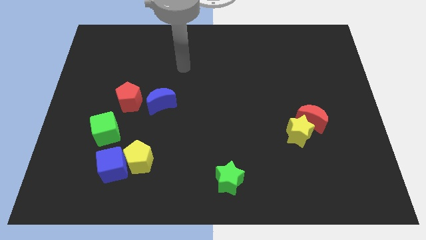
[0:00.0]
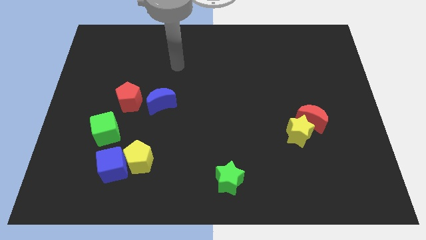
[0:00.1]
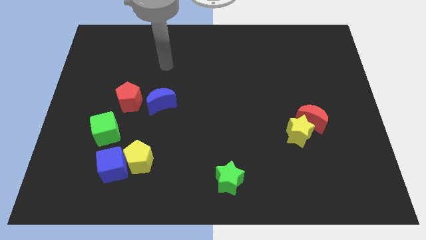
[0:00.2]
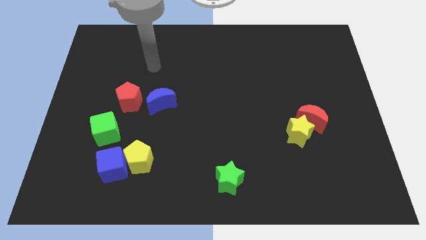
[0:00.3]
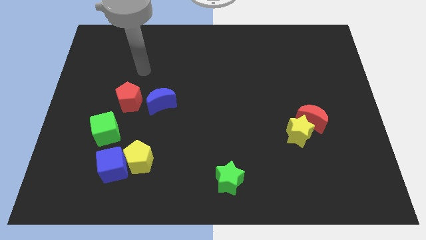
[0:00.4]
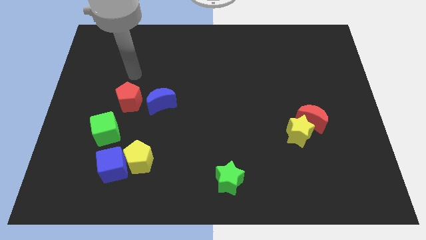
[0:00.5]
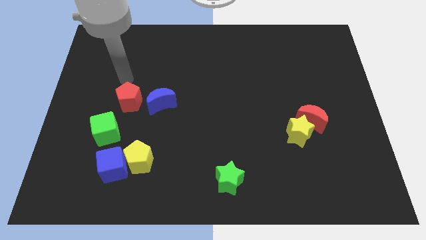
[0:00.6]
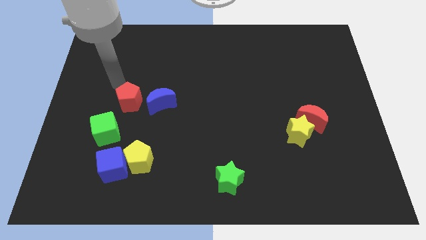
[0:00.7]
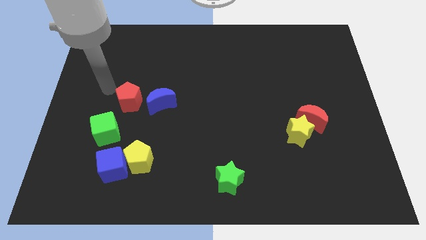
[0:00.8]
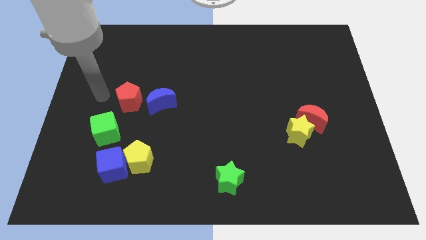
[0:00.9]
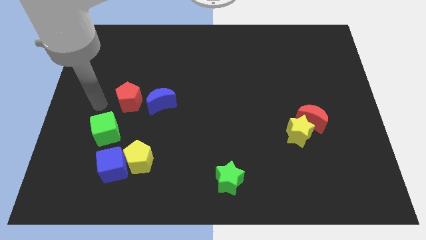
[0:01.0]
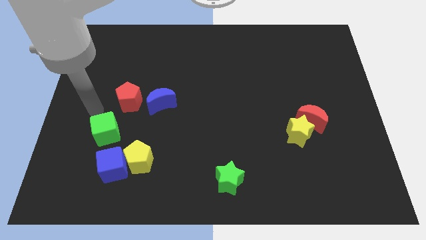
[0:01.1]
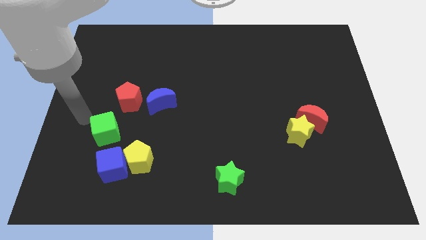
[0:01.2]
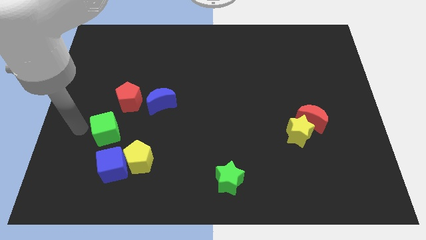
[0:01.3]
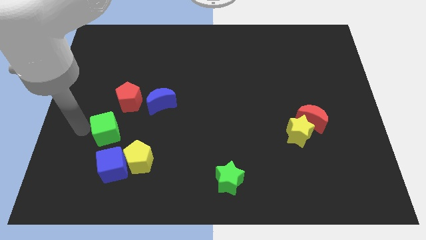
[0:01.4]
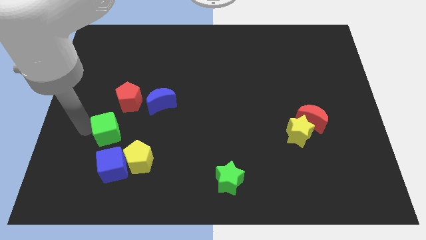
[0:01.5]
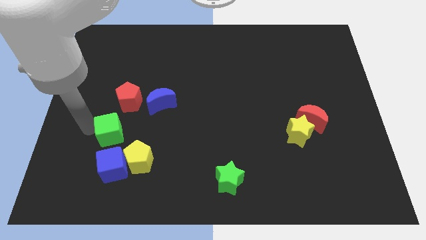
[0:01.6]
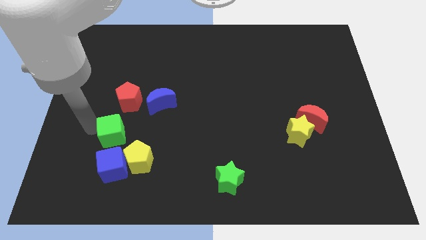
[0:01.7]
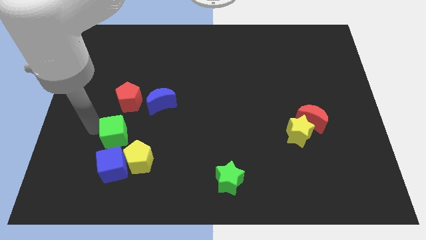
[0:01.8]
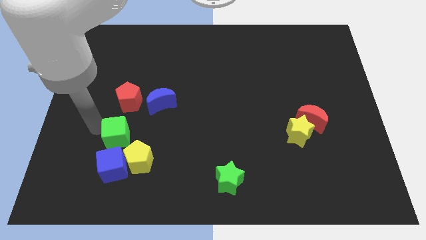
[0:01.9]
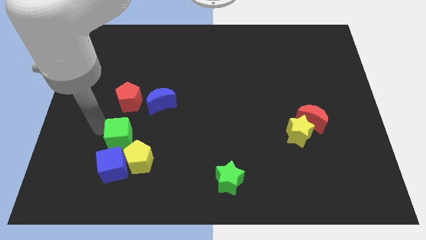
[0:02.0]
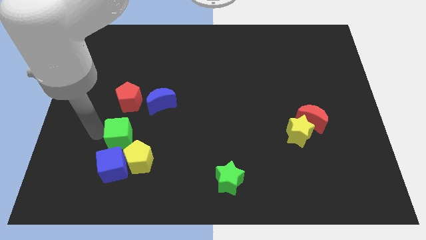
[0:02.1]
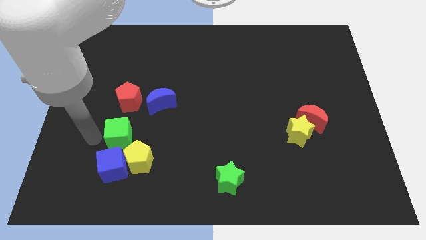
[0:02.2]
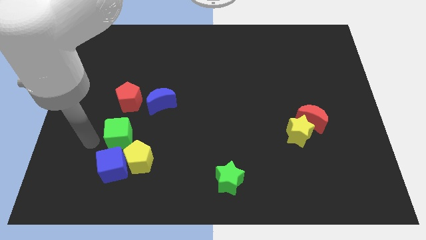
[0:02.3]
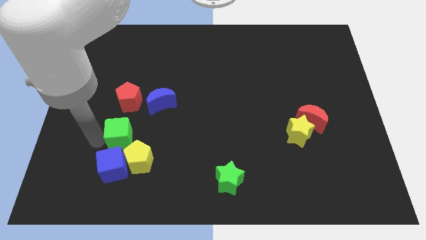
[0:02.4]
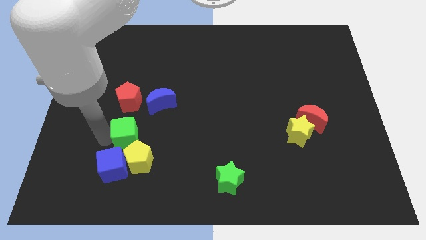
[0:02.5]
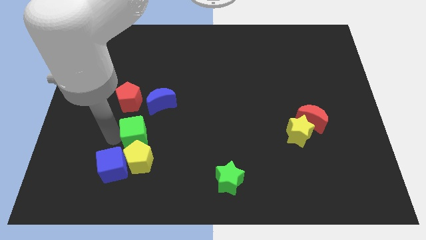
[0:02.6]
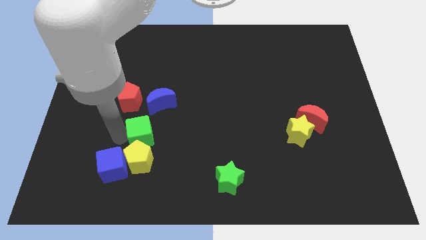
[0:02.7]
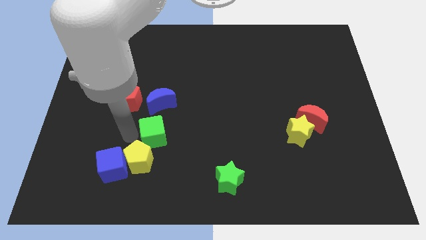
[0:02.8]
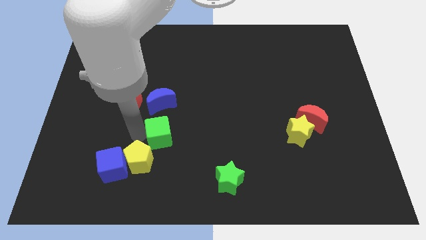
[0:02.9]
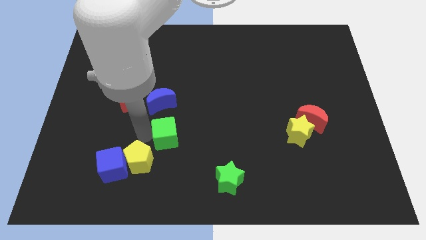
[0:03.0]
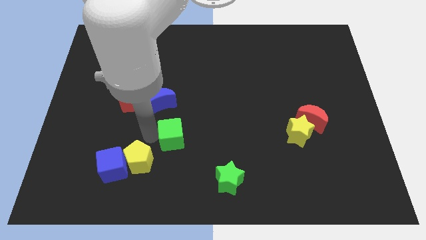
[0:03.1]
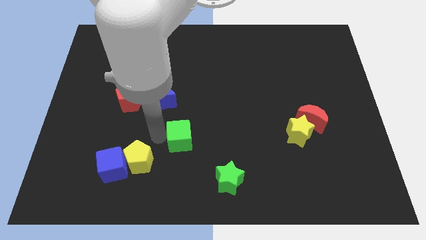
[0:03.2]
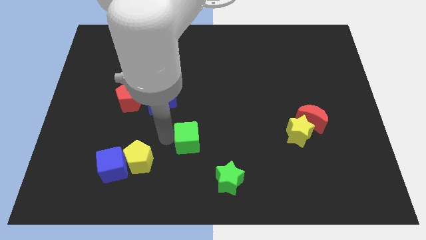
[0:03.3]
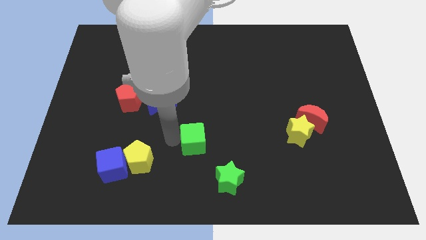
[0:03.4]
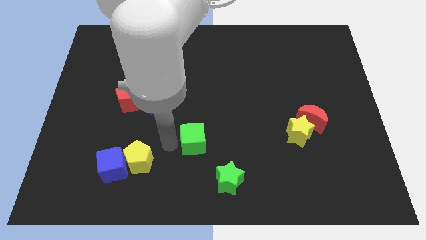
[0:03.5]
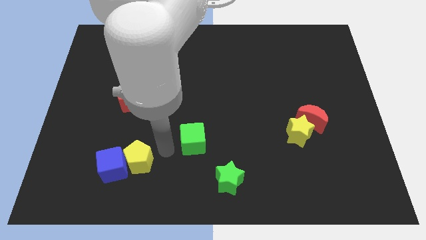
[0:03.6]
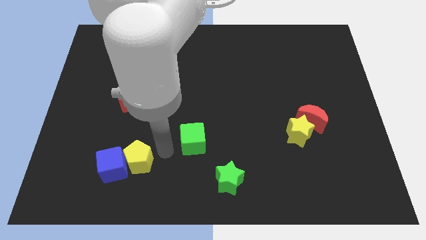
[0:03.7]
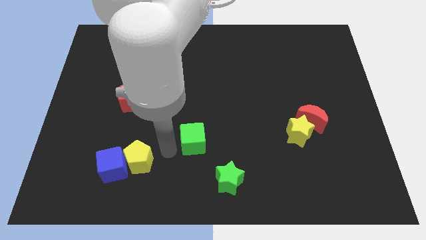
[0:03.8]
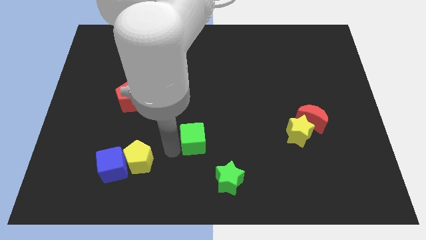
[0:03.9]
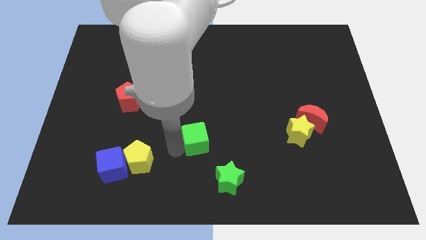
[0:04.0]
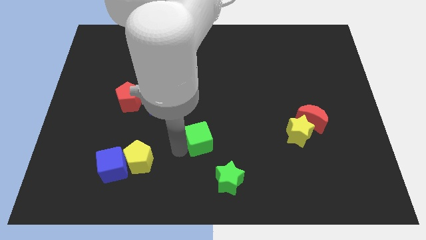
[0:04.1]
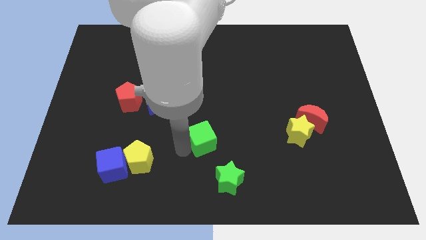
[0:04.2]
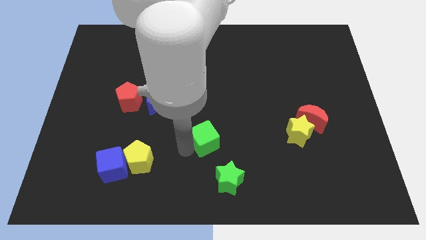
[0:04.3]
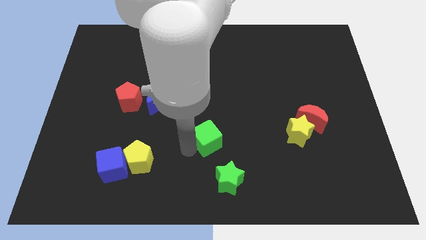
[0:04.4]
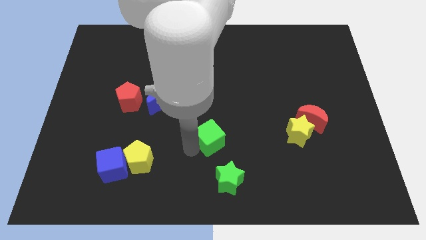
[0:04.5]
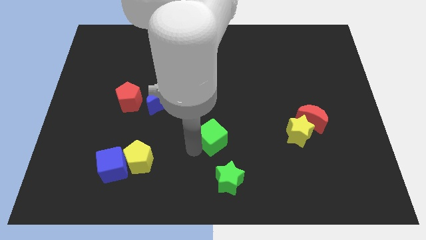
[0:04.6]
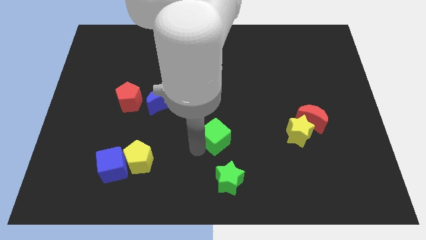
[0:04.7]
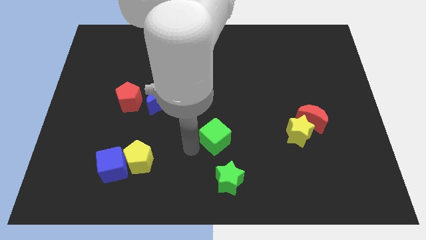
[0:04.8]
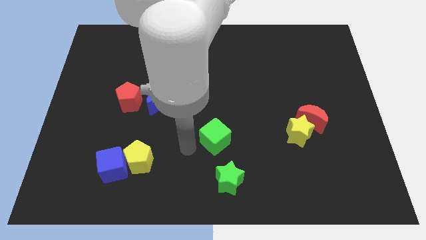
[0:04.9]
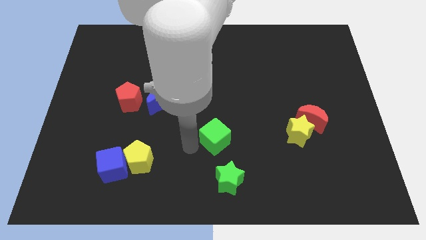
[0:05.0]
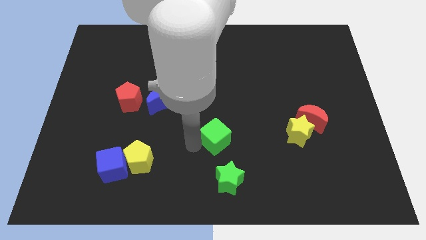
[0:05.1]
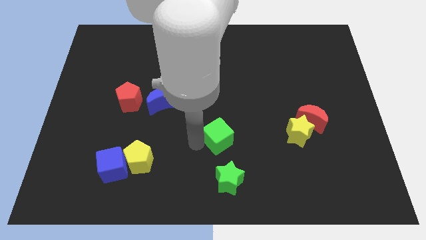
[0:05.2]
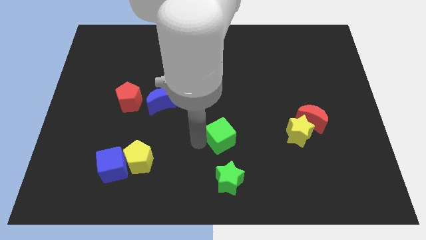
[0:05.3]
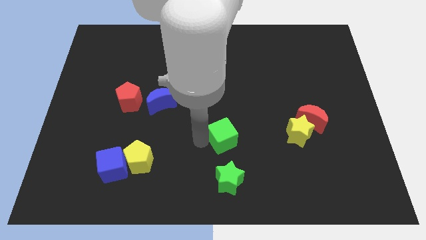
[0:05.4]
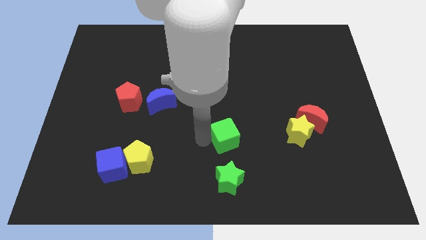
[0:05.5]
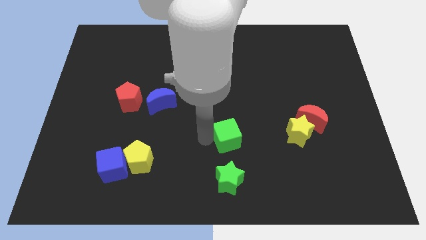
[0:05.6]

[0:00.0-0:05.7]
move the green cube to the left of the yellow star

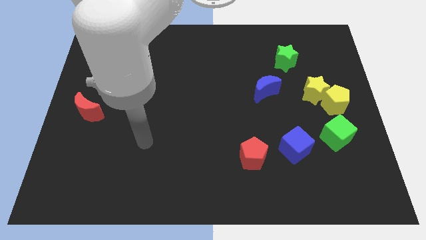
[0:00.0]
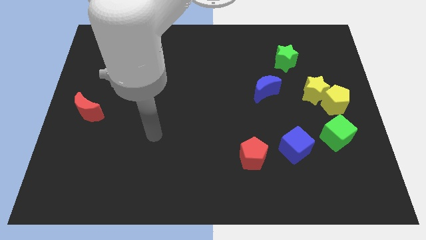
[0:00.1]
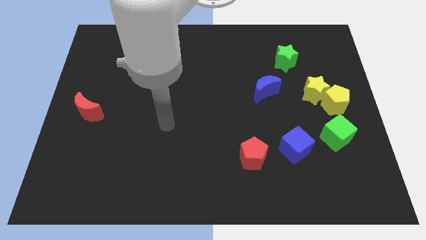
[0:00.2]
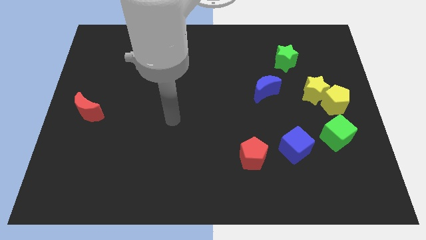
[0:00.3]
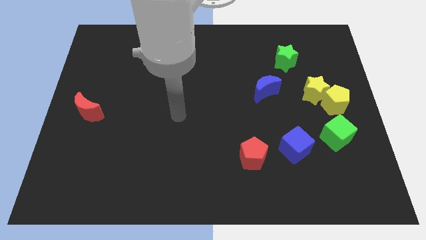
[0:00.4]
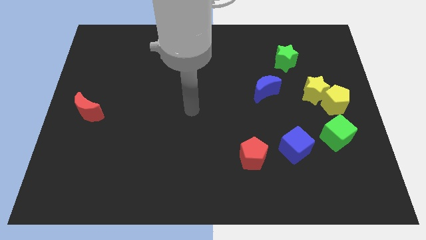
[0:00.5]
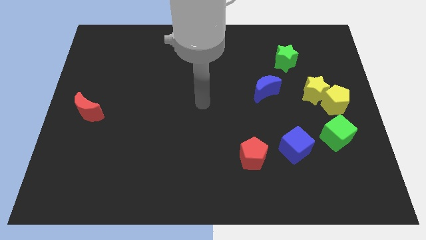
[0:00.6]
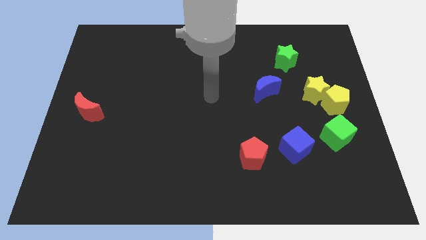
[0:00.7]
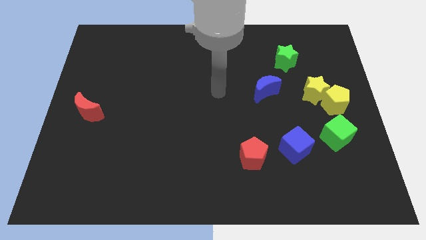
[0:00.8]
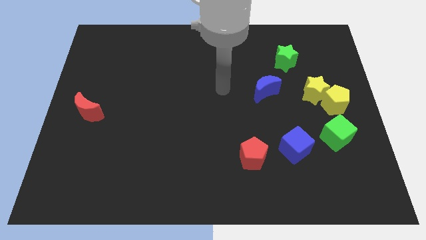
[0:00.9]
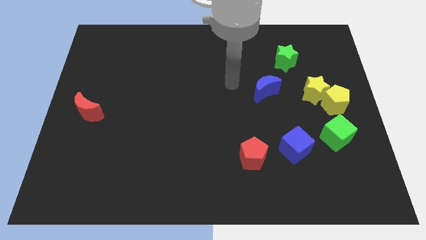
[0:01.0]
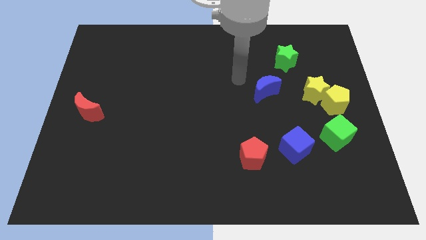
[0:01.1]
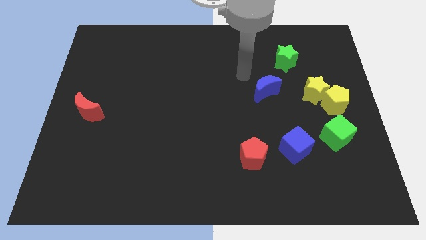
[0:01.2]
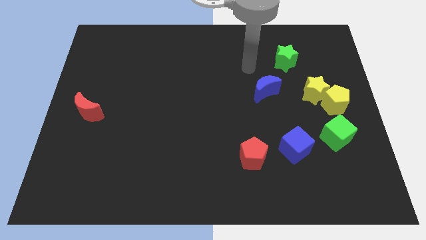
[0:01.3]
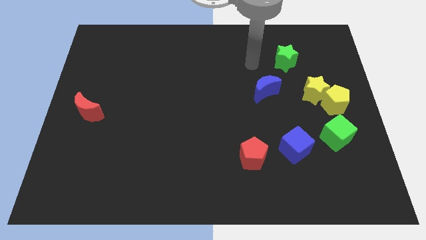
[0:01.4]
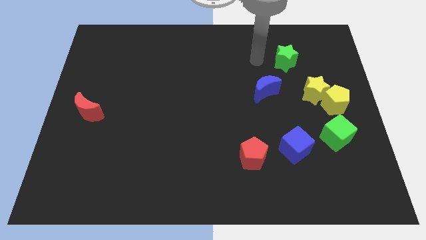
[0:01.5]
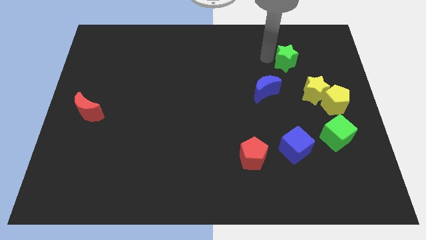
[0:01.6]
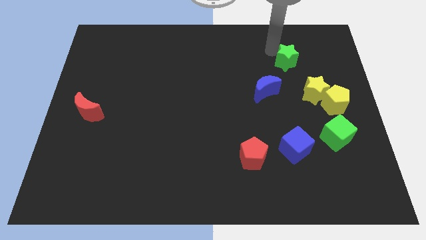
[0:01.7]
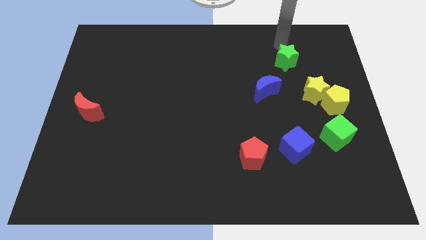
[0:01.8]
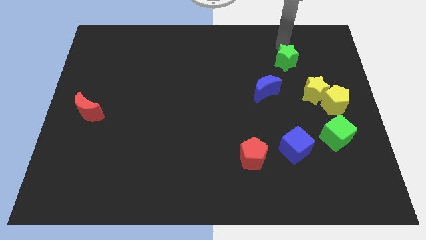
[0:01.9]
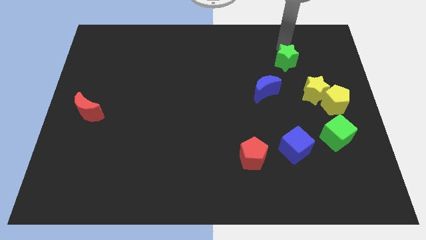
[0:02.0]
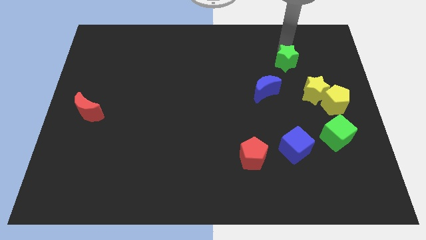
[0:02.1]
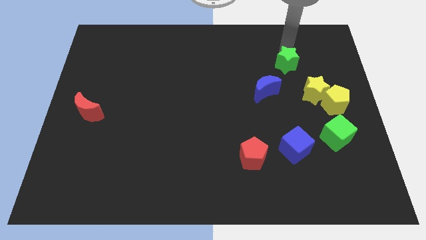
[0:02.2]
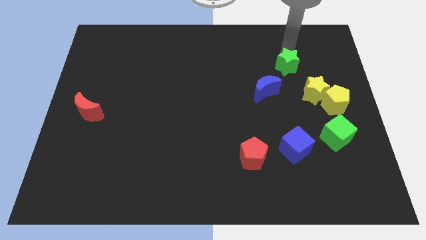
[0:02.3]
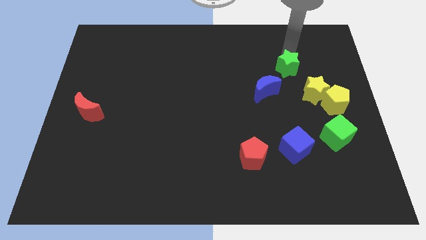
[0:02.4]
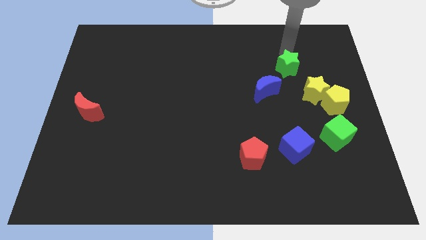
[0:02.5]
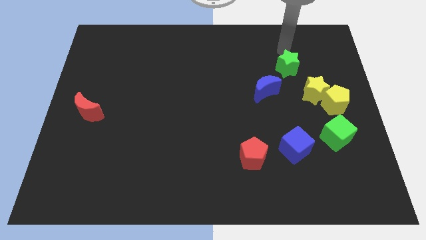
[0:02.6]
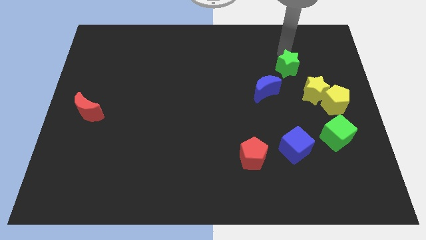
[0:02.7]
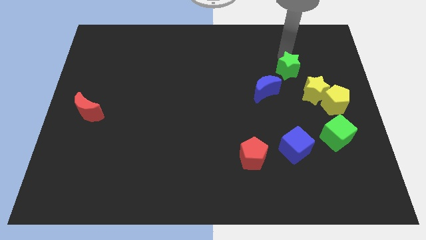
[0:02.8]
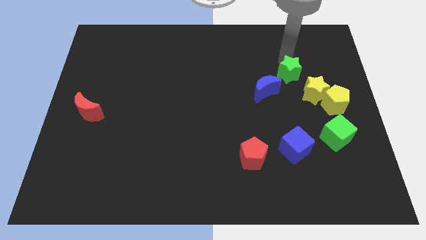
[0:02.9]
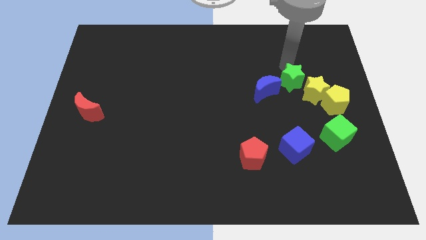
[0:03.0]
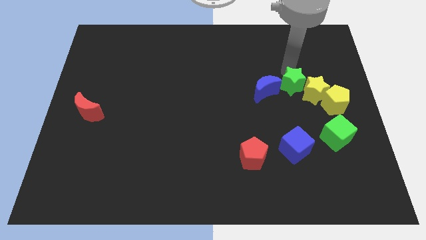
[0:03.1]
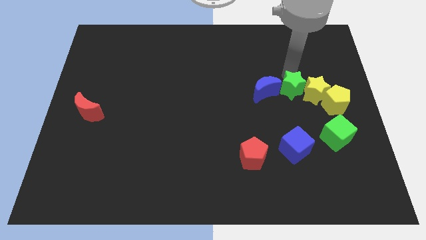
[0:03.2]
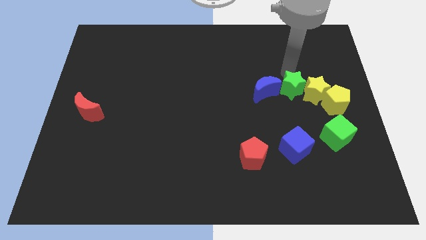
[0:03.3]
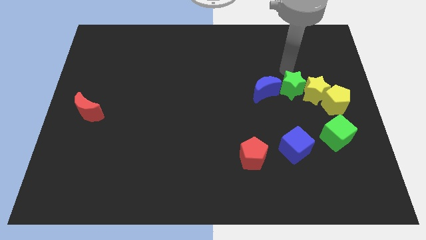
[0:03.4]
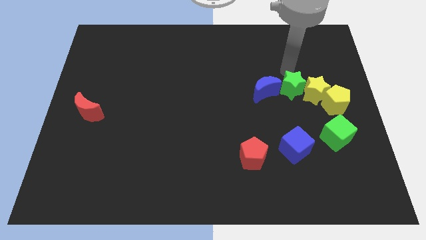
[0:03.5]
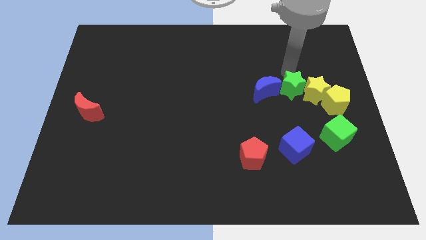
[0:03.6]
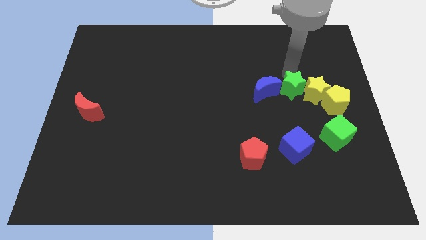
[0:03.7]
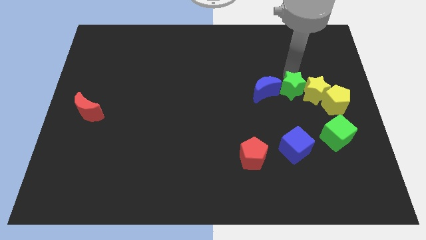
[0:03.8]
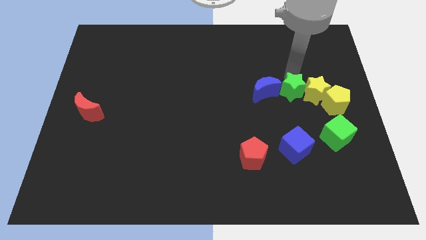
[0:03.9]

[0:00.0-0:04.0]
put the green star to the bottom left side of the yellow star
